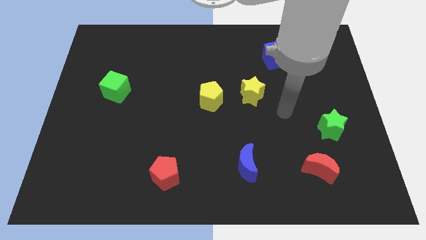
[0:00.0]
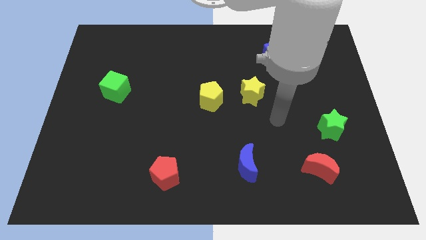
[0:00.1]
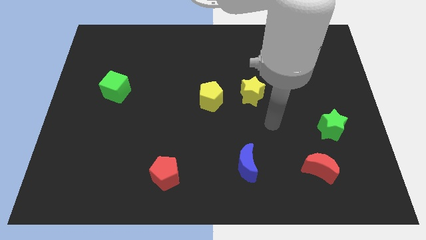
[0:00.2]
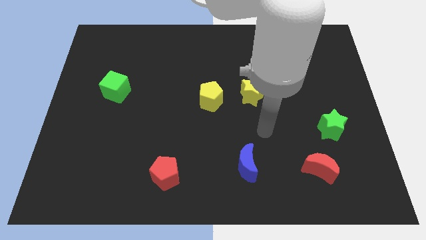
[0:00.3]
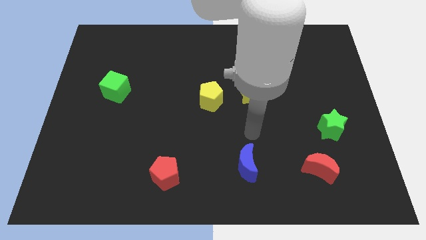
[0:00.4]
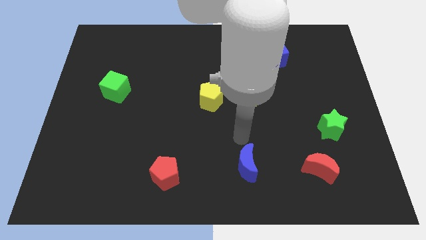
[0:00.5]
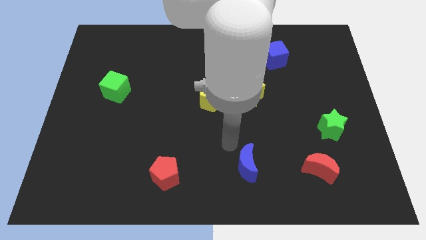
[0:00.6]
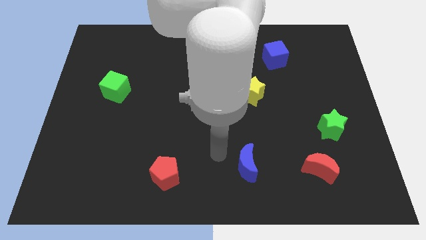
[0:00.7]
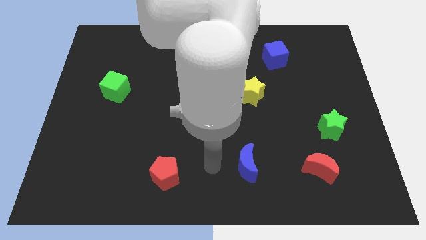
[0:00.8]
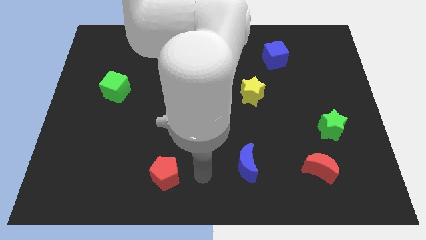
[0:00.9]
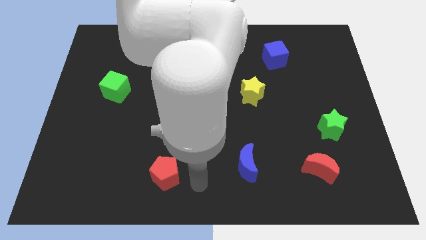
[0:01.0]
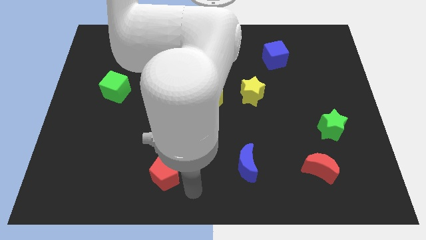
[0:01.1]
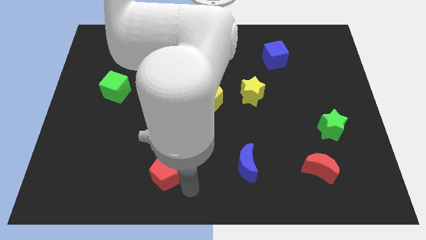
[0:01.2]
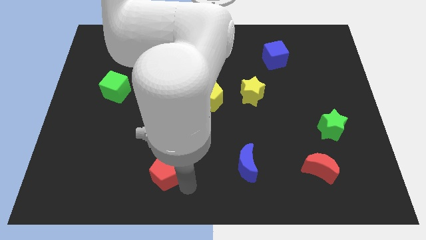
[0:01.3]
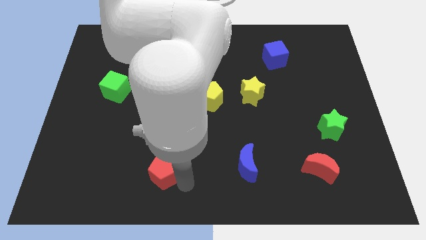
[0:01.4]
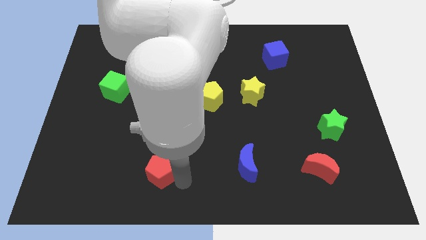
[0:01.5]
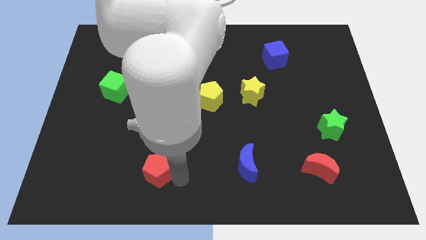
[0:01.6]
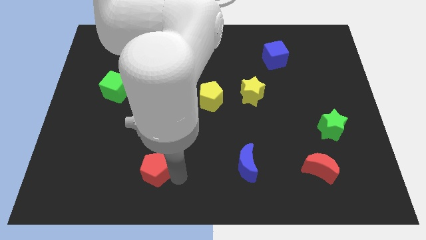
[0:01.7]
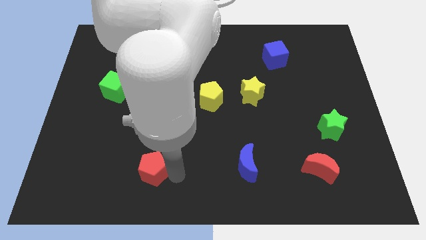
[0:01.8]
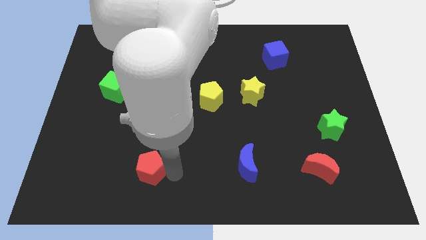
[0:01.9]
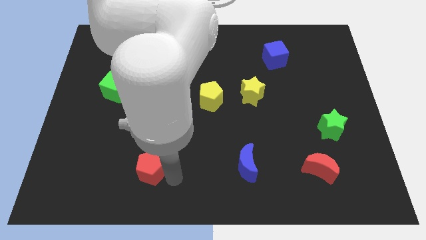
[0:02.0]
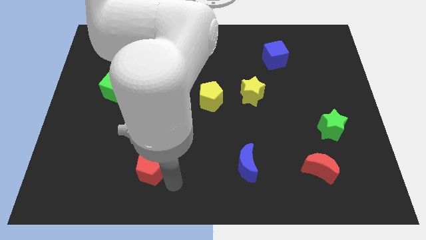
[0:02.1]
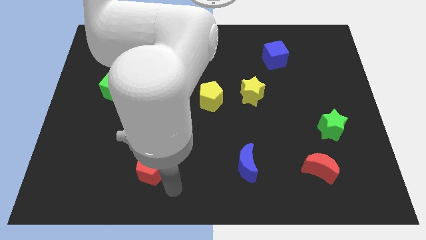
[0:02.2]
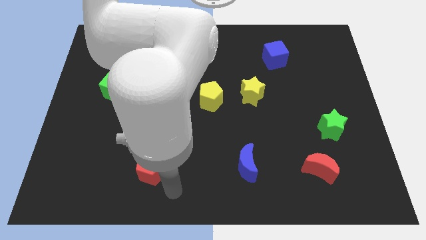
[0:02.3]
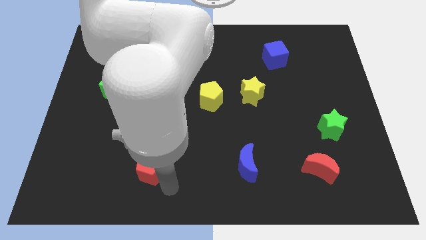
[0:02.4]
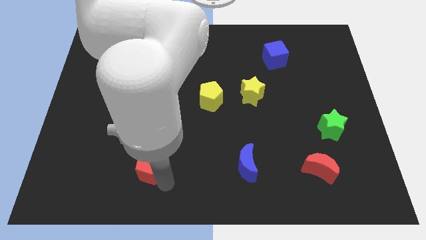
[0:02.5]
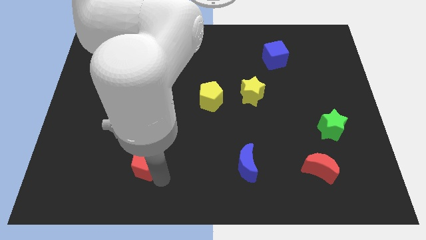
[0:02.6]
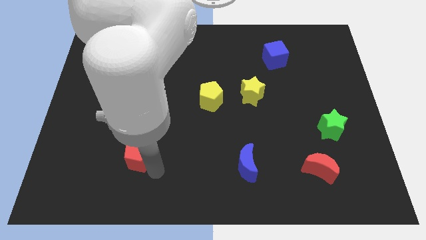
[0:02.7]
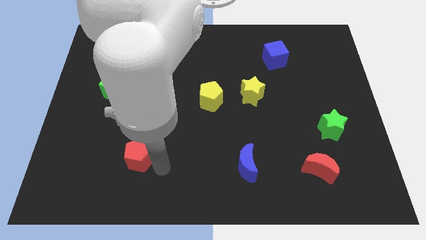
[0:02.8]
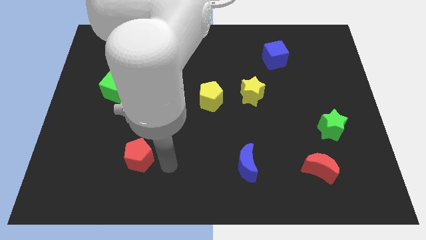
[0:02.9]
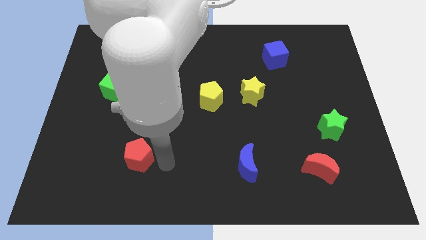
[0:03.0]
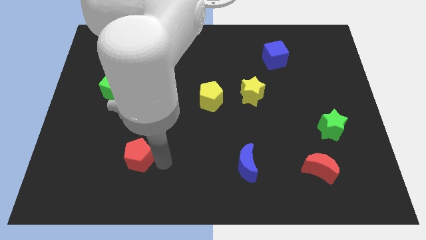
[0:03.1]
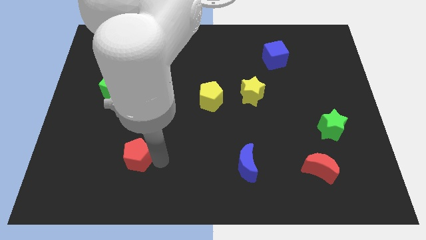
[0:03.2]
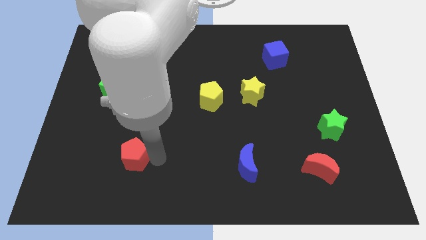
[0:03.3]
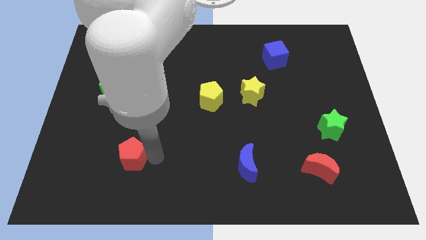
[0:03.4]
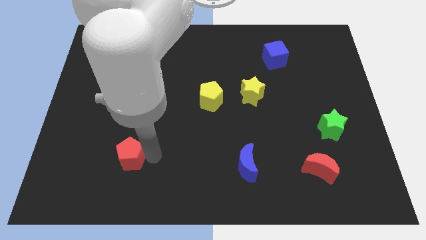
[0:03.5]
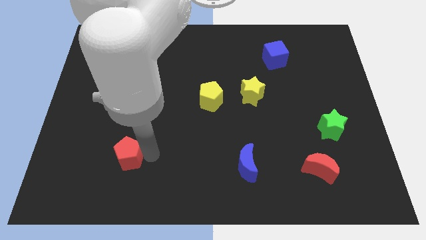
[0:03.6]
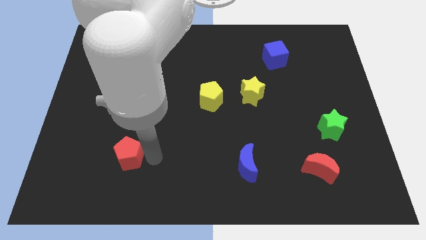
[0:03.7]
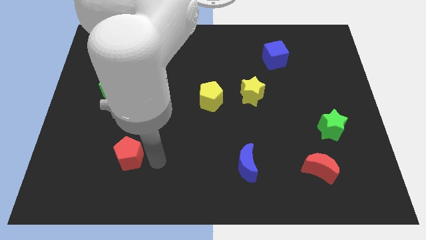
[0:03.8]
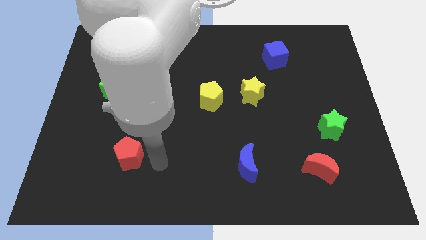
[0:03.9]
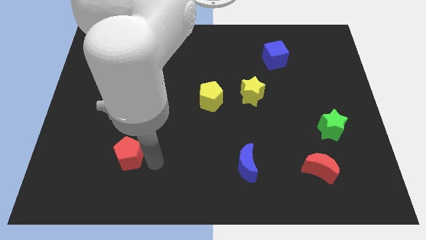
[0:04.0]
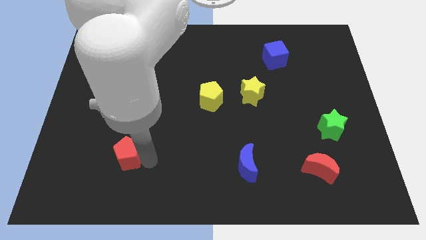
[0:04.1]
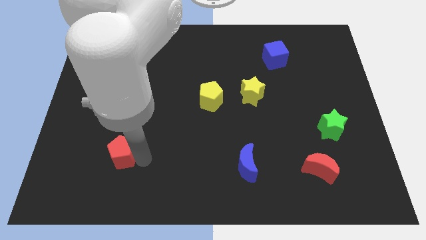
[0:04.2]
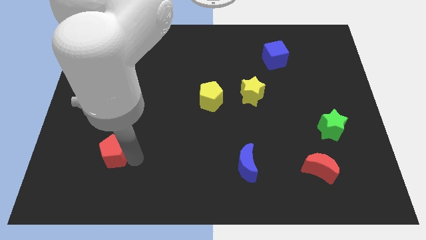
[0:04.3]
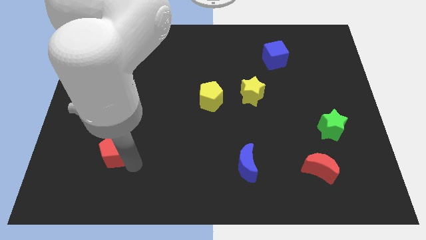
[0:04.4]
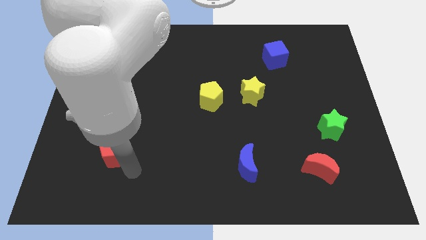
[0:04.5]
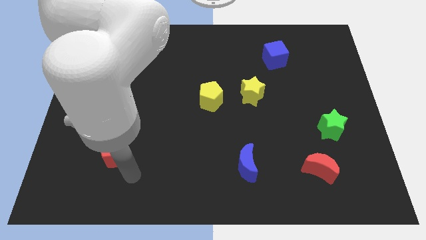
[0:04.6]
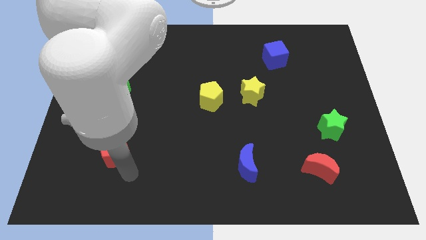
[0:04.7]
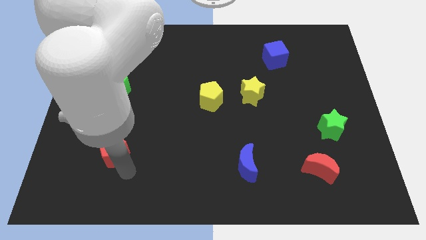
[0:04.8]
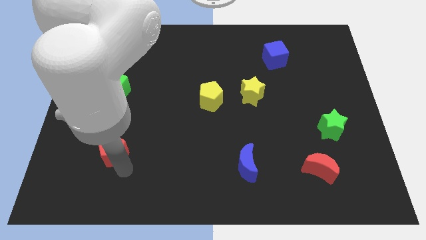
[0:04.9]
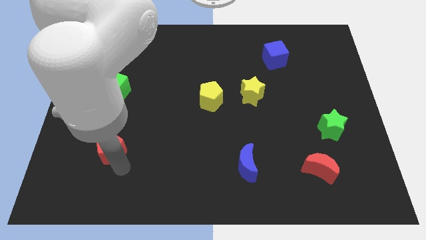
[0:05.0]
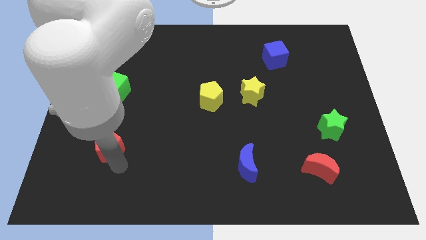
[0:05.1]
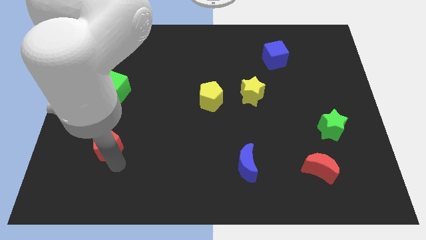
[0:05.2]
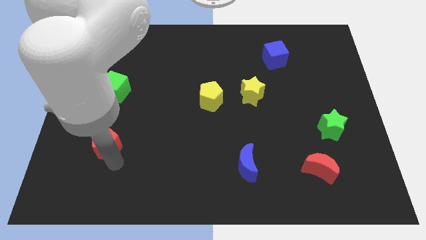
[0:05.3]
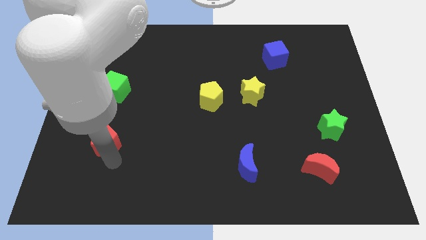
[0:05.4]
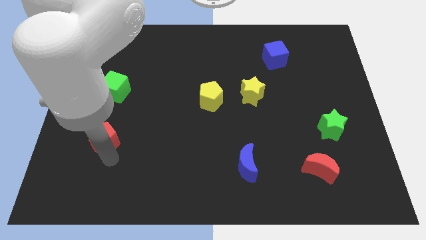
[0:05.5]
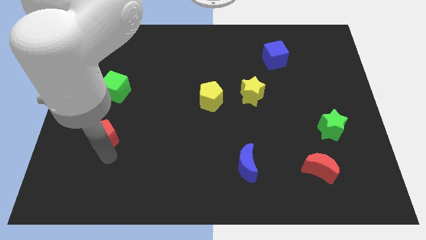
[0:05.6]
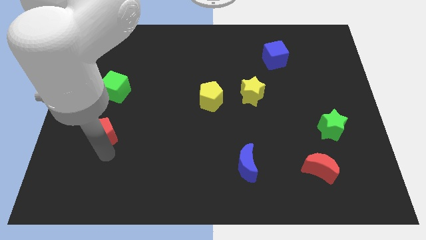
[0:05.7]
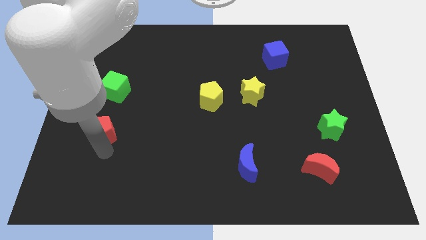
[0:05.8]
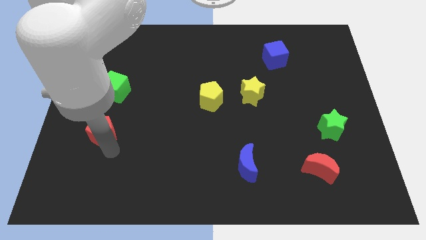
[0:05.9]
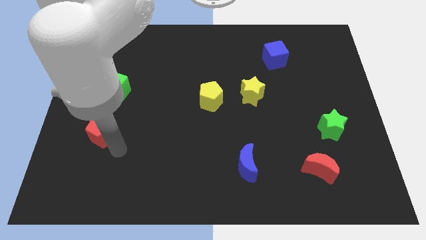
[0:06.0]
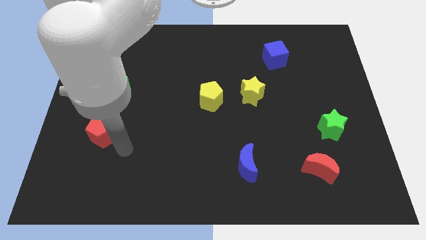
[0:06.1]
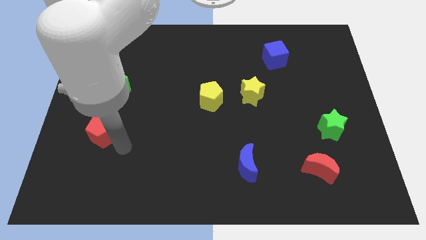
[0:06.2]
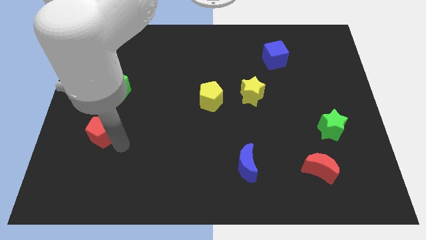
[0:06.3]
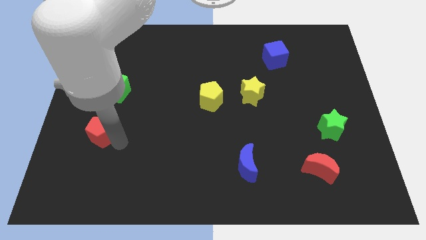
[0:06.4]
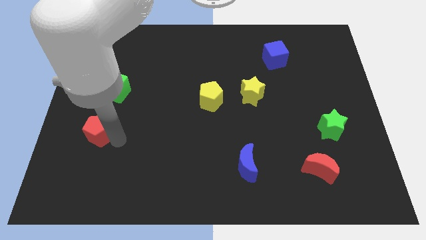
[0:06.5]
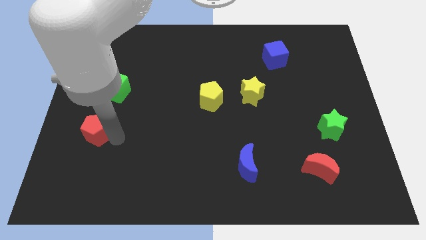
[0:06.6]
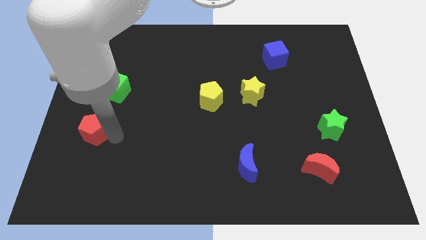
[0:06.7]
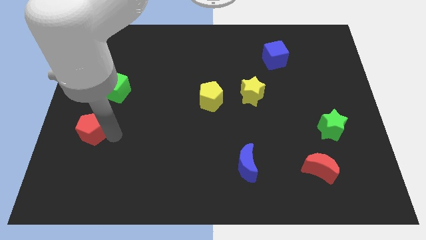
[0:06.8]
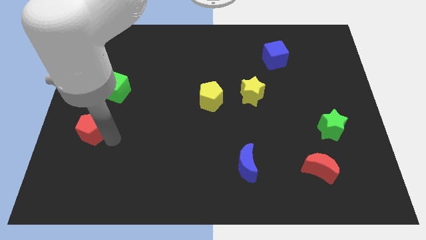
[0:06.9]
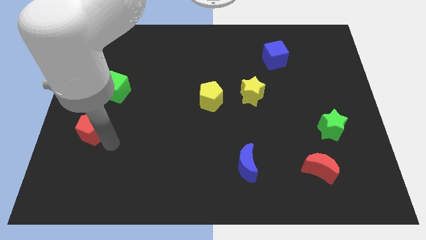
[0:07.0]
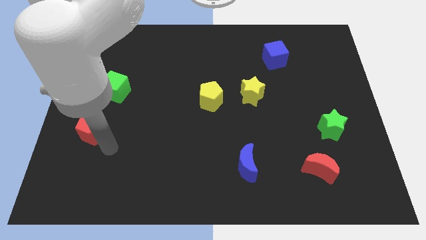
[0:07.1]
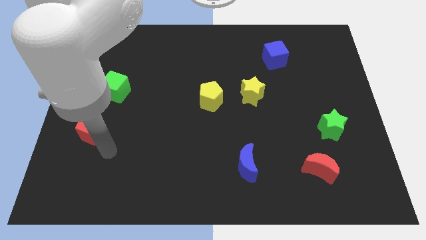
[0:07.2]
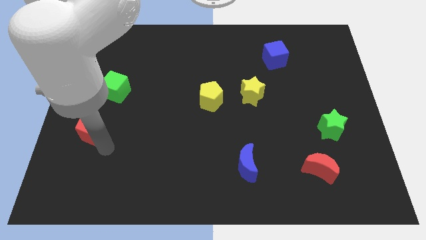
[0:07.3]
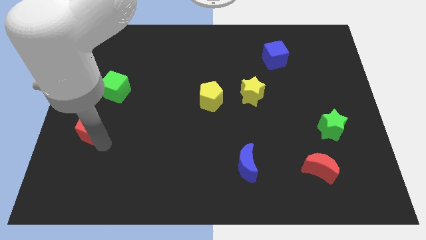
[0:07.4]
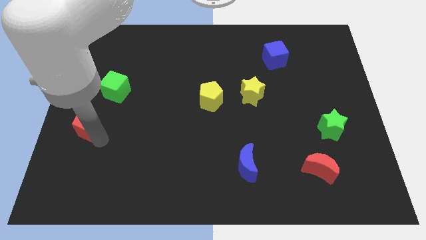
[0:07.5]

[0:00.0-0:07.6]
slide the red pentagon to the left side of the board
